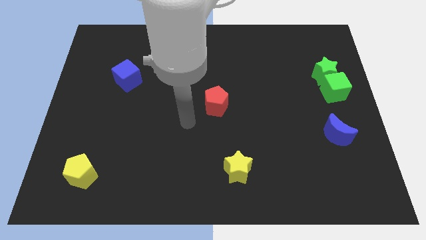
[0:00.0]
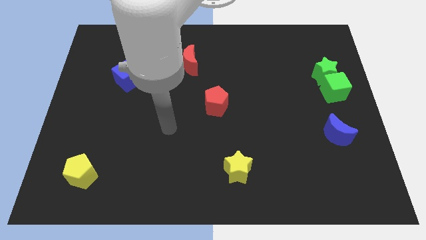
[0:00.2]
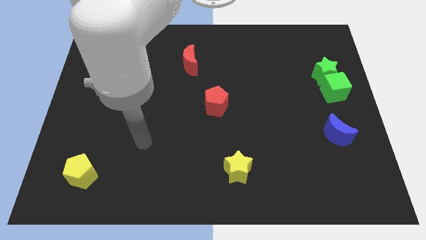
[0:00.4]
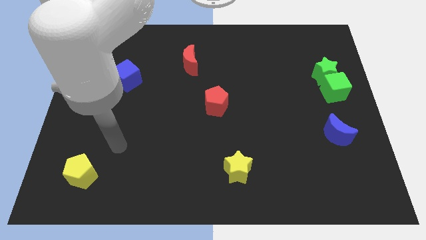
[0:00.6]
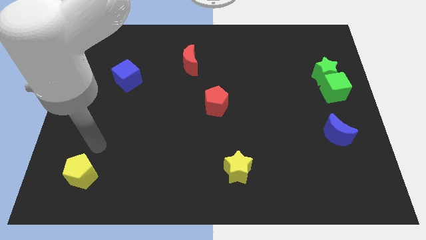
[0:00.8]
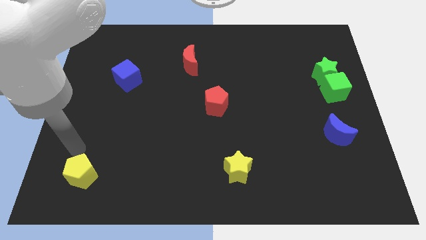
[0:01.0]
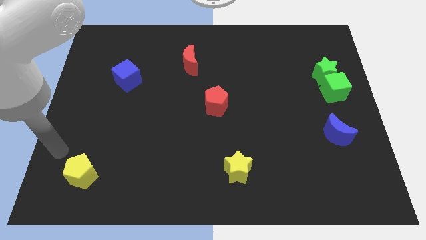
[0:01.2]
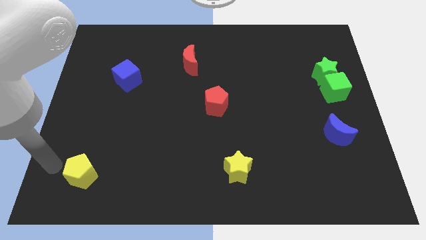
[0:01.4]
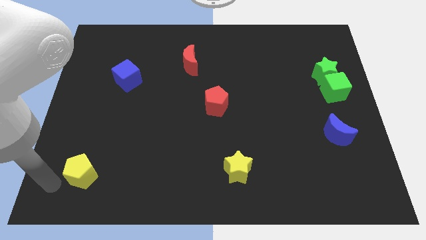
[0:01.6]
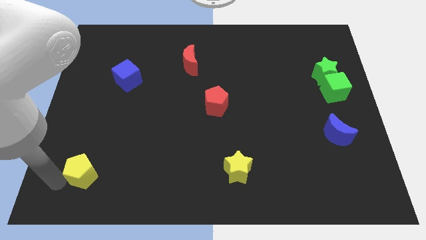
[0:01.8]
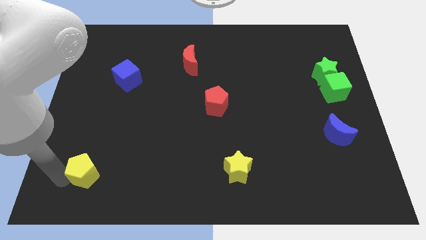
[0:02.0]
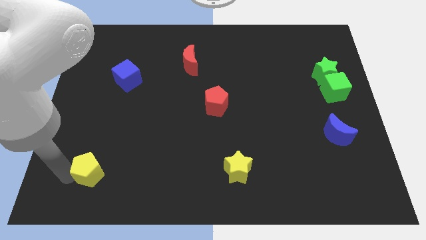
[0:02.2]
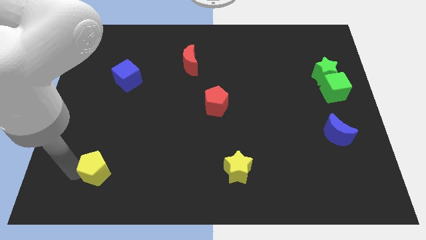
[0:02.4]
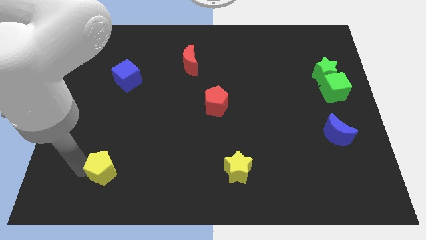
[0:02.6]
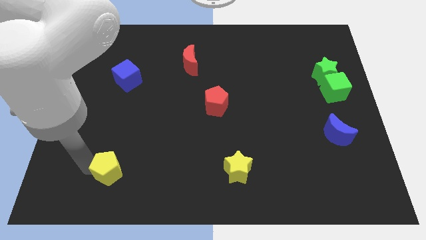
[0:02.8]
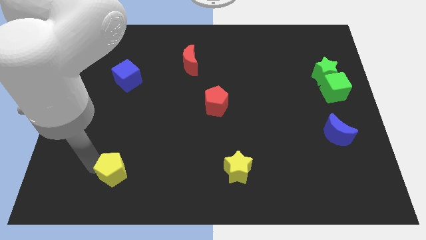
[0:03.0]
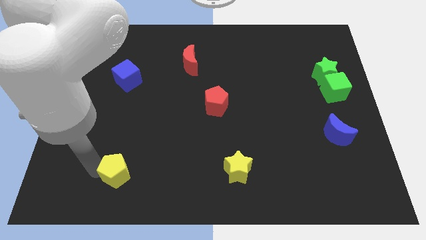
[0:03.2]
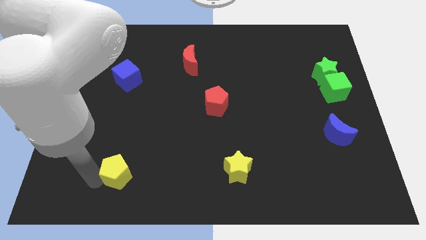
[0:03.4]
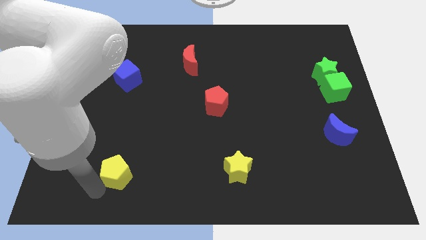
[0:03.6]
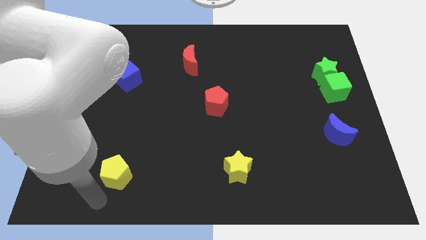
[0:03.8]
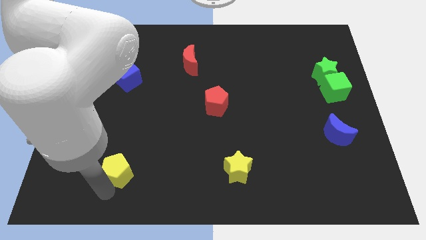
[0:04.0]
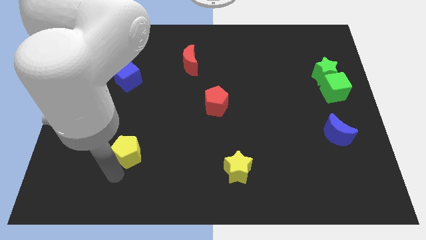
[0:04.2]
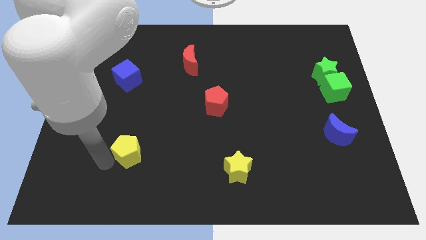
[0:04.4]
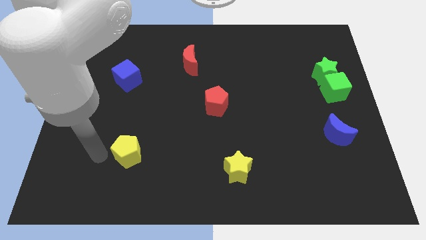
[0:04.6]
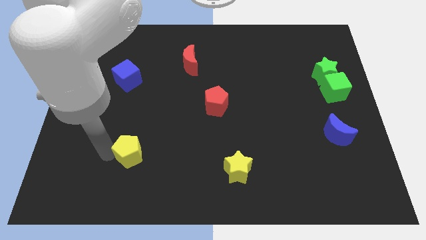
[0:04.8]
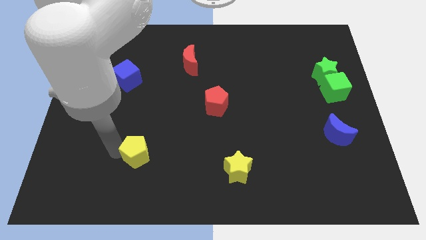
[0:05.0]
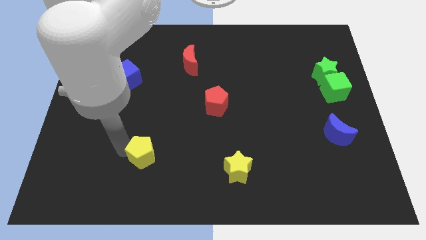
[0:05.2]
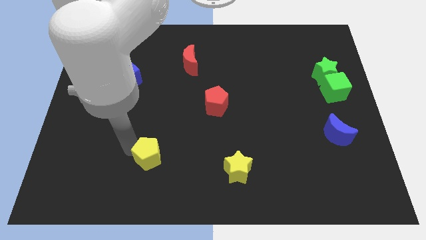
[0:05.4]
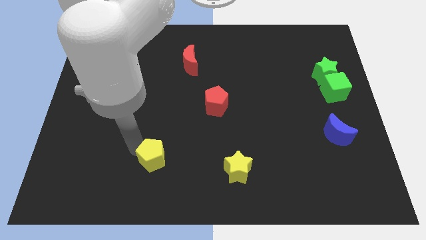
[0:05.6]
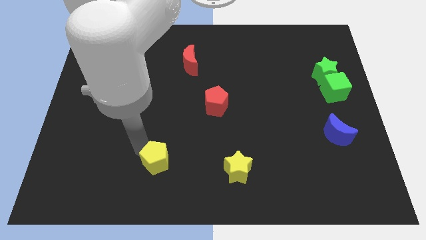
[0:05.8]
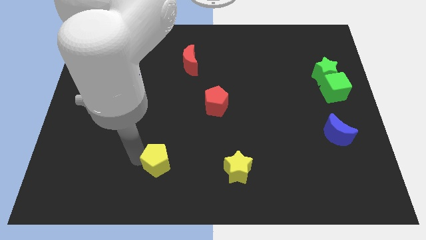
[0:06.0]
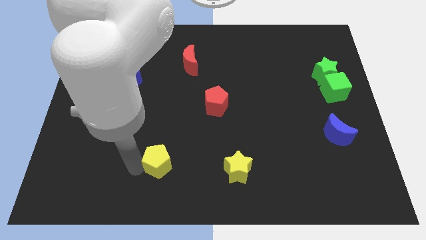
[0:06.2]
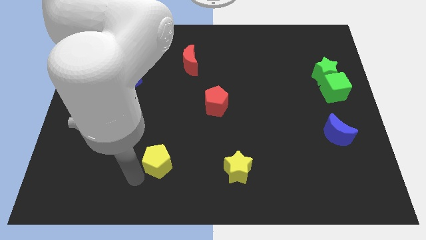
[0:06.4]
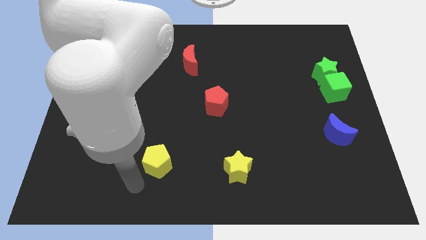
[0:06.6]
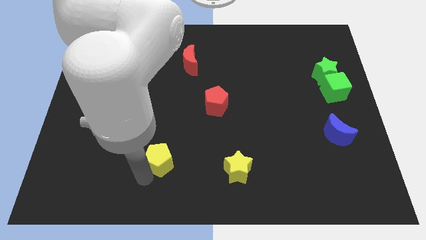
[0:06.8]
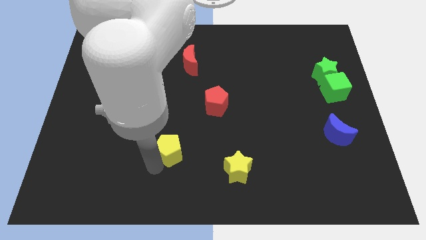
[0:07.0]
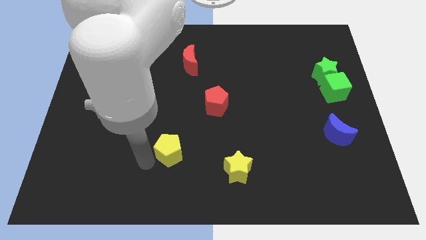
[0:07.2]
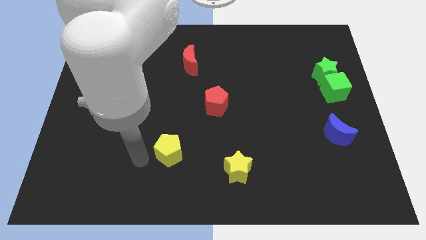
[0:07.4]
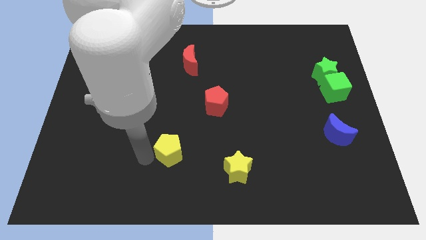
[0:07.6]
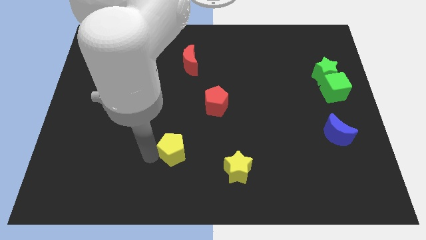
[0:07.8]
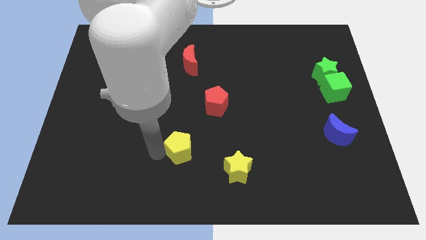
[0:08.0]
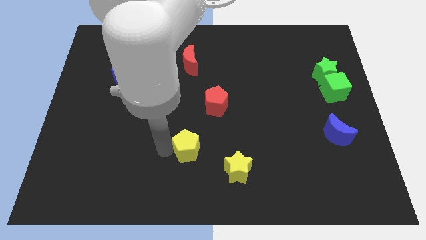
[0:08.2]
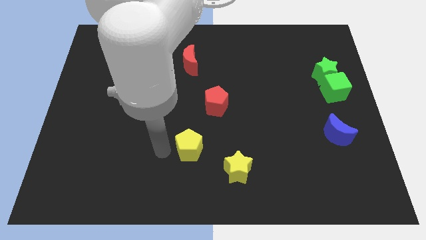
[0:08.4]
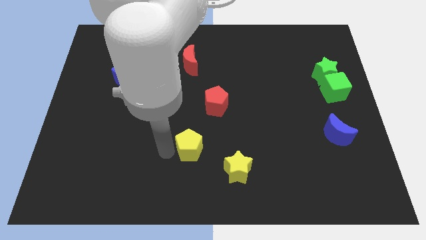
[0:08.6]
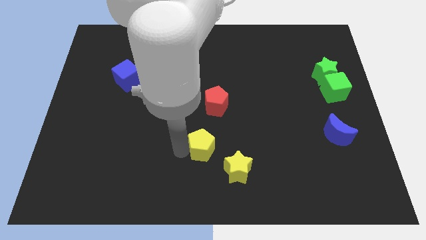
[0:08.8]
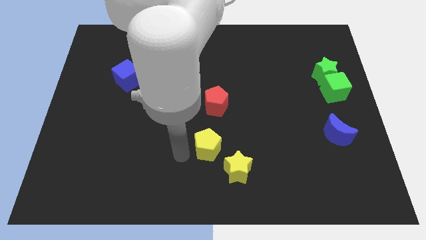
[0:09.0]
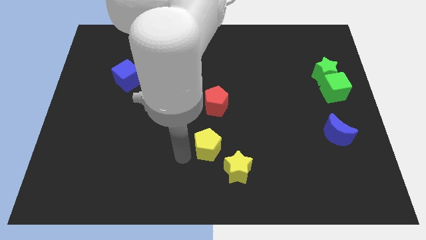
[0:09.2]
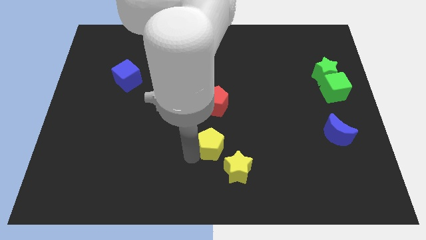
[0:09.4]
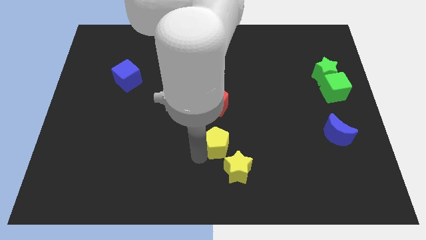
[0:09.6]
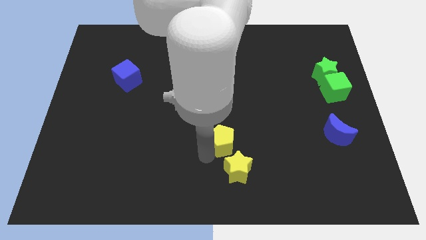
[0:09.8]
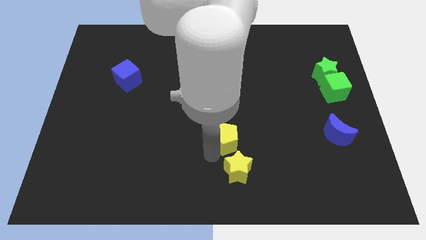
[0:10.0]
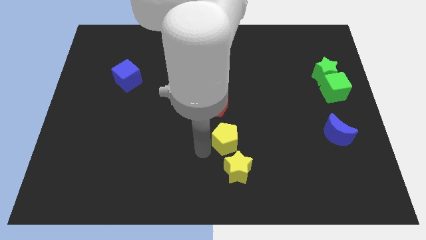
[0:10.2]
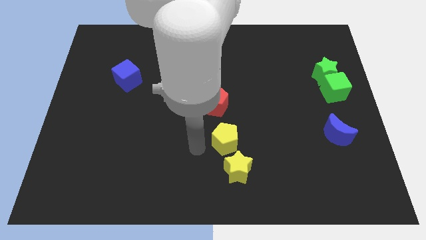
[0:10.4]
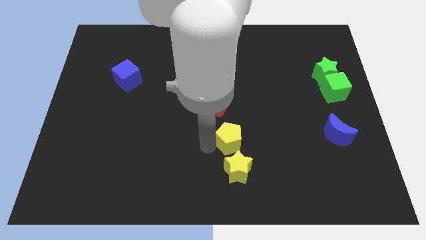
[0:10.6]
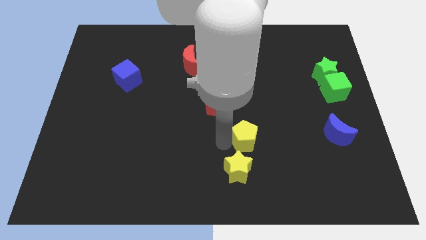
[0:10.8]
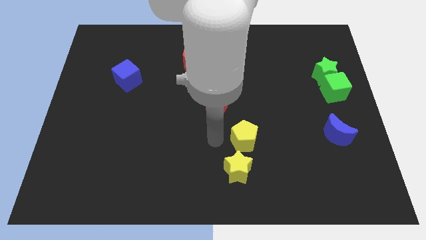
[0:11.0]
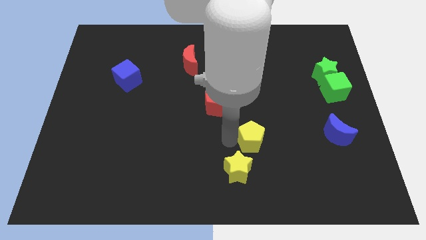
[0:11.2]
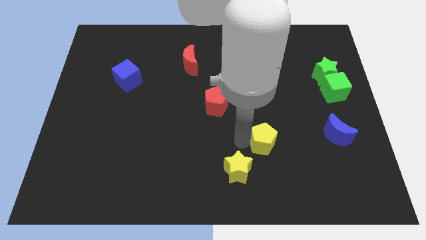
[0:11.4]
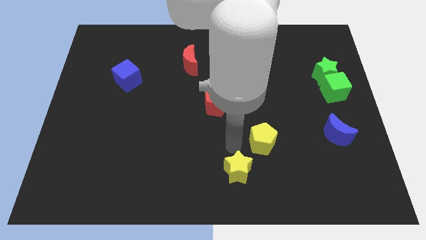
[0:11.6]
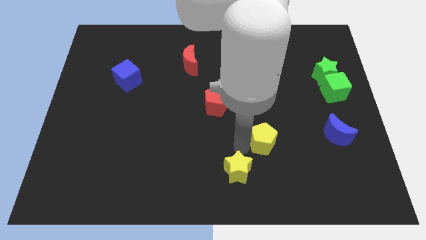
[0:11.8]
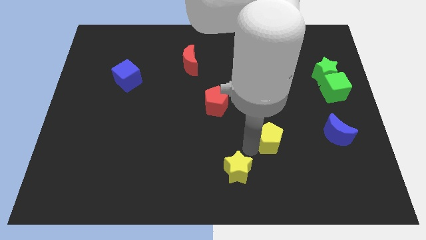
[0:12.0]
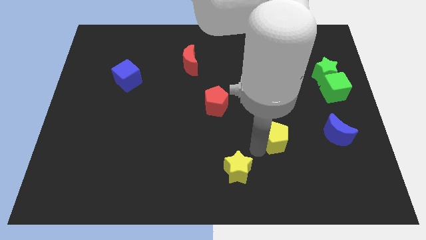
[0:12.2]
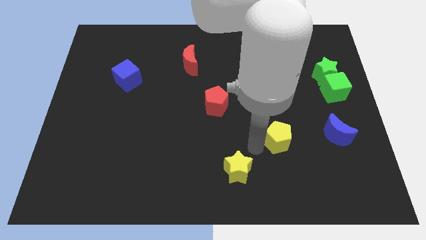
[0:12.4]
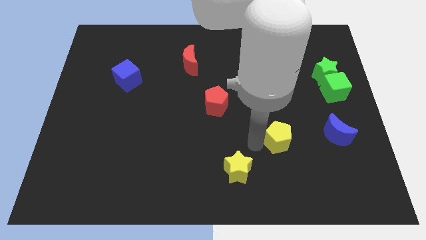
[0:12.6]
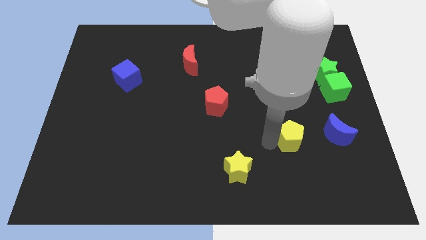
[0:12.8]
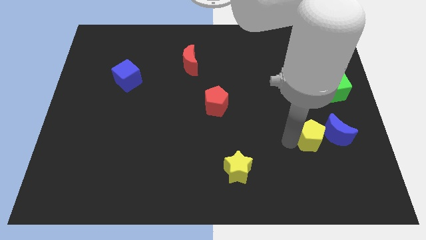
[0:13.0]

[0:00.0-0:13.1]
move the yellow pentagon to the blue moon

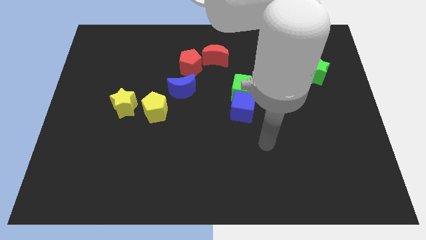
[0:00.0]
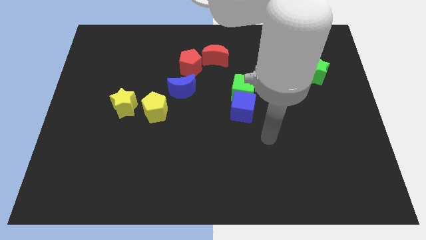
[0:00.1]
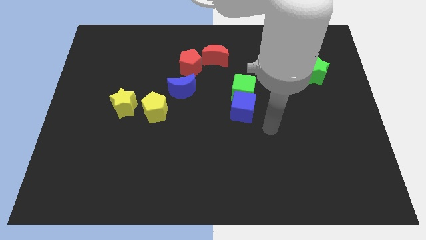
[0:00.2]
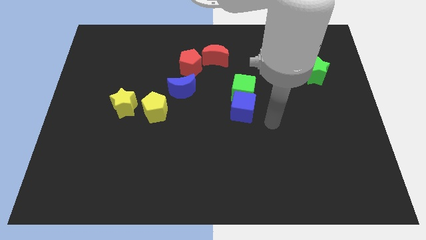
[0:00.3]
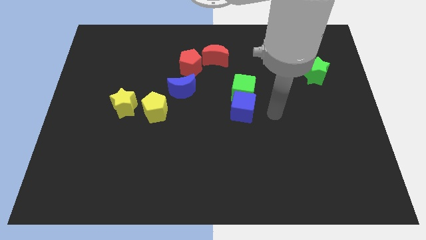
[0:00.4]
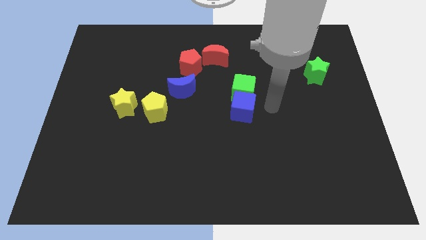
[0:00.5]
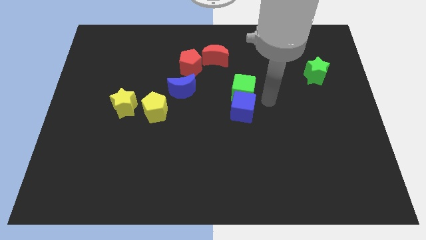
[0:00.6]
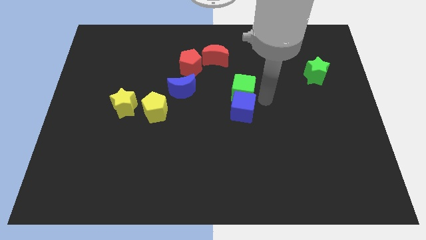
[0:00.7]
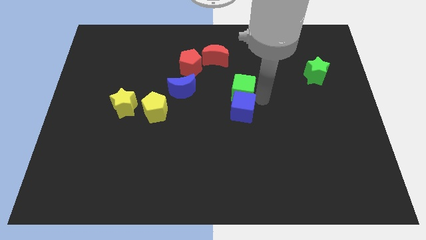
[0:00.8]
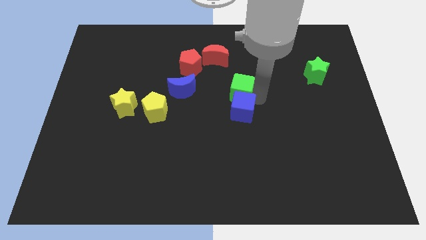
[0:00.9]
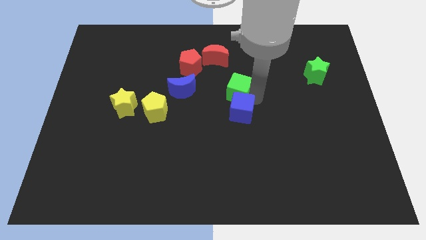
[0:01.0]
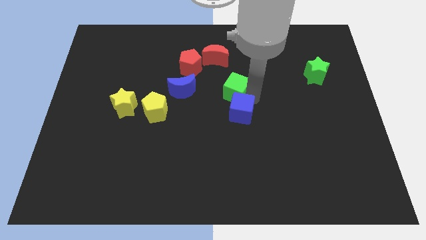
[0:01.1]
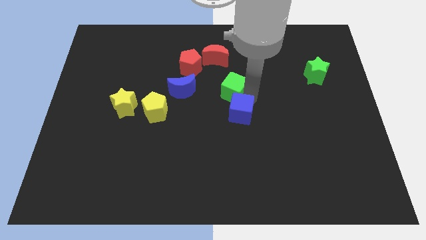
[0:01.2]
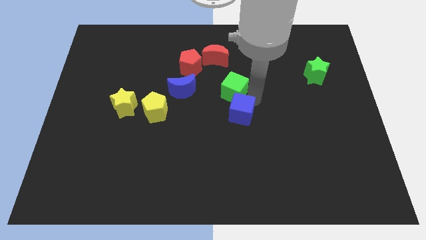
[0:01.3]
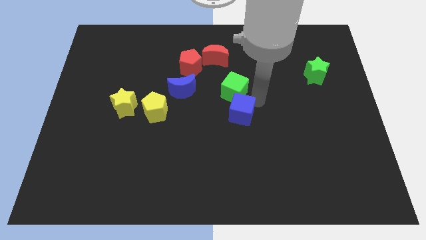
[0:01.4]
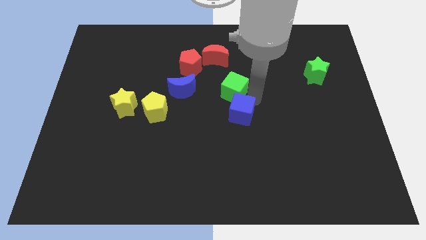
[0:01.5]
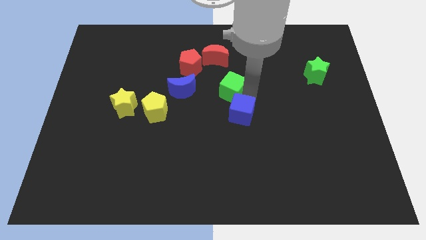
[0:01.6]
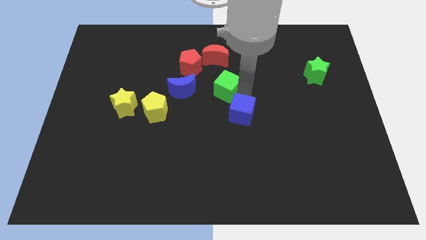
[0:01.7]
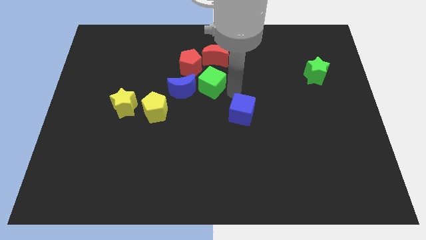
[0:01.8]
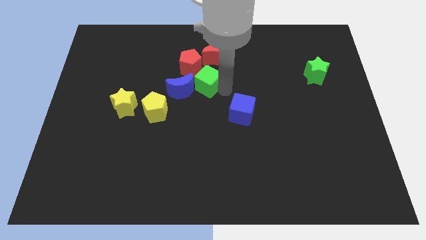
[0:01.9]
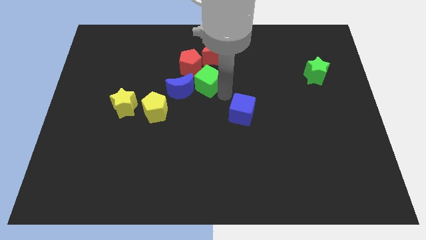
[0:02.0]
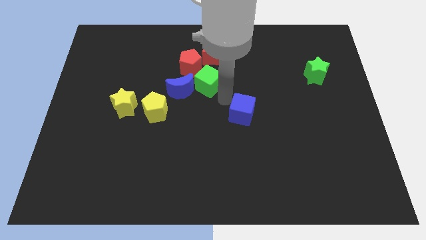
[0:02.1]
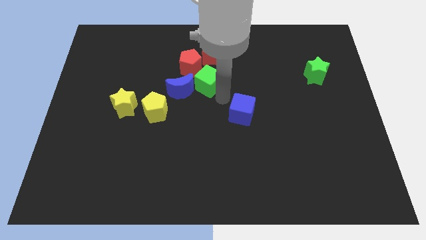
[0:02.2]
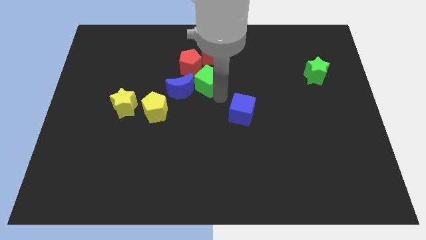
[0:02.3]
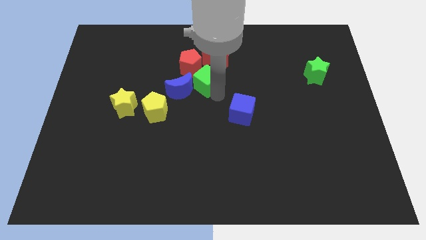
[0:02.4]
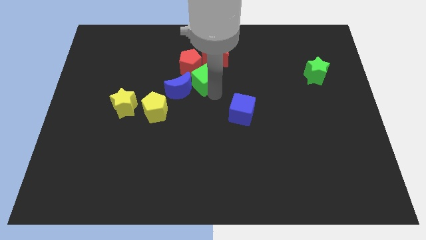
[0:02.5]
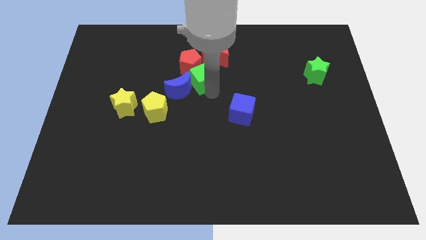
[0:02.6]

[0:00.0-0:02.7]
put the green cube close to the red pentagon
